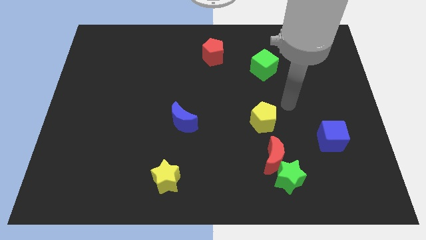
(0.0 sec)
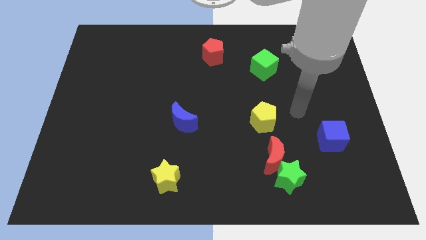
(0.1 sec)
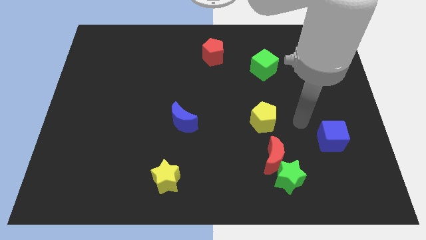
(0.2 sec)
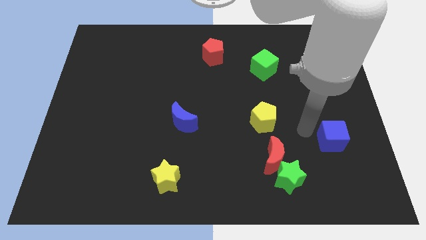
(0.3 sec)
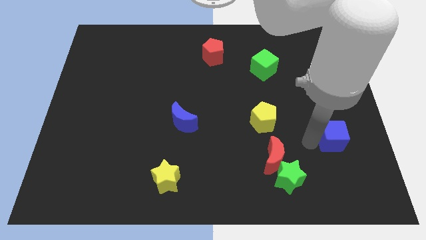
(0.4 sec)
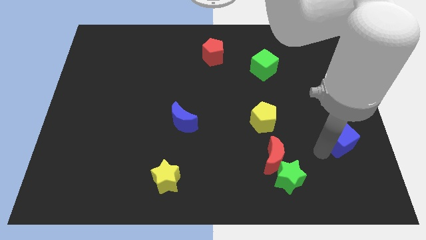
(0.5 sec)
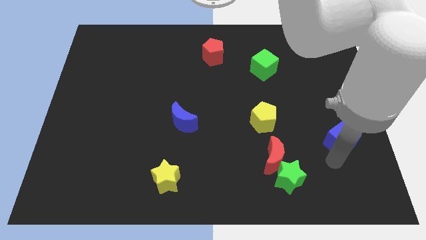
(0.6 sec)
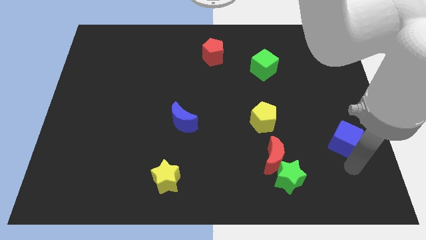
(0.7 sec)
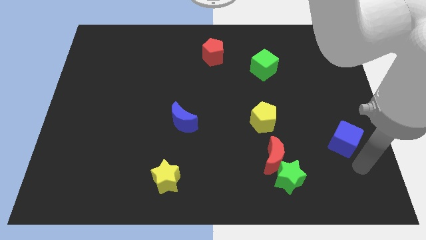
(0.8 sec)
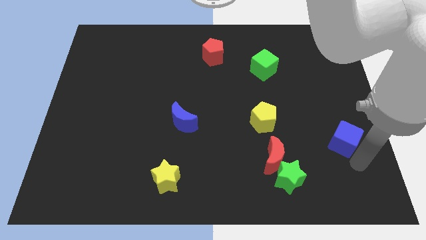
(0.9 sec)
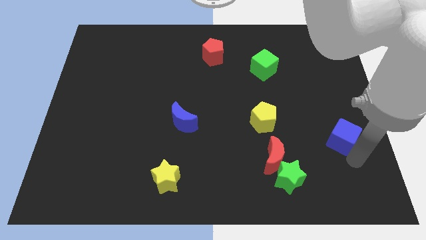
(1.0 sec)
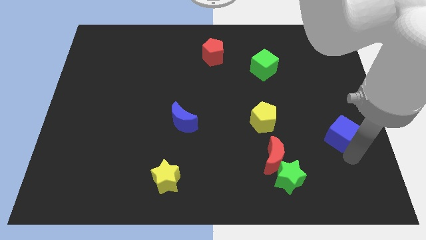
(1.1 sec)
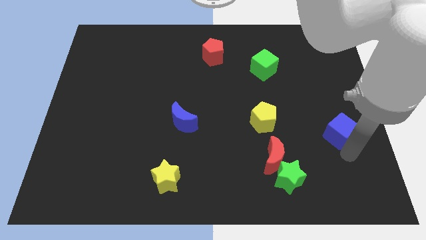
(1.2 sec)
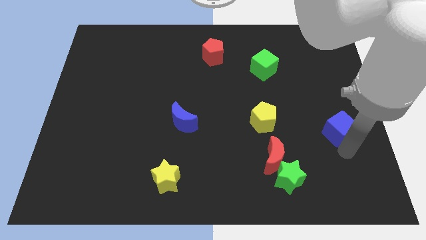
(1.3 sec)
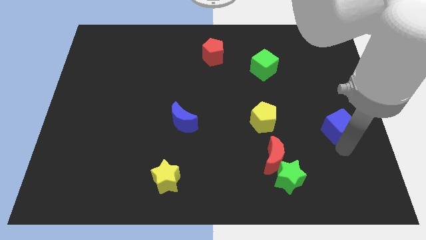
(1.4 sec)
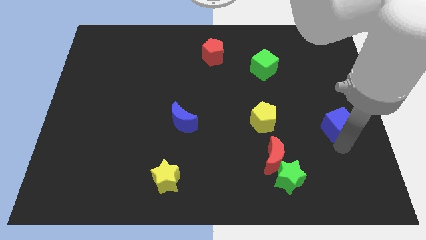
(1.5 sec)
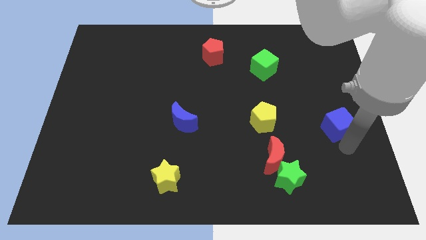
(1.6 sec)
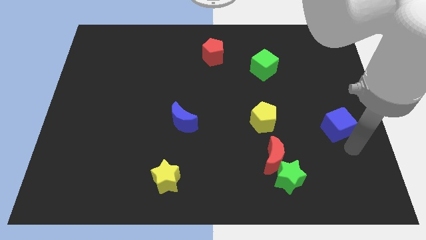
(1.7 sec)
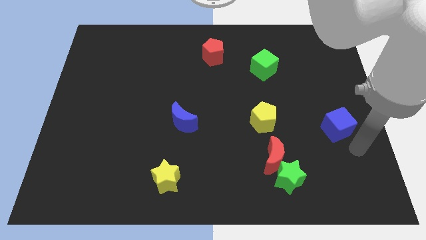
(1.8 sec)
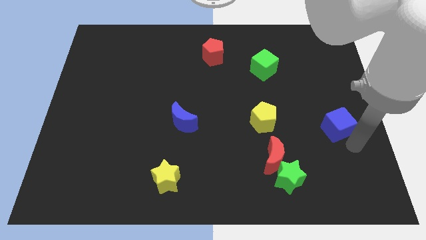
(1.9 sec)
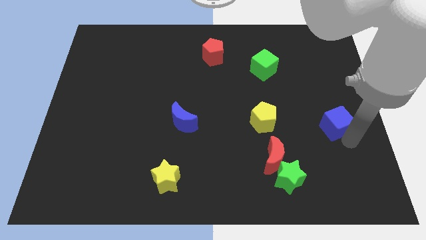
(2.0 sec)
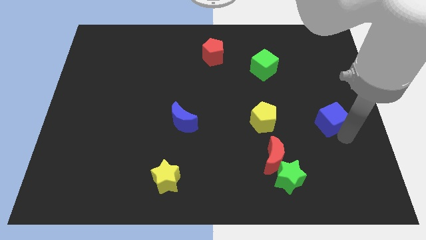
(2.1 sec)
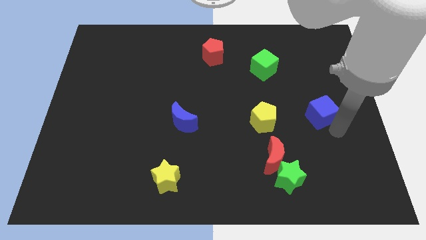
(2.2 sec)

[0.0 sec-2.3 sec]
slightly move the blue cube upwards

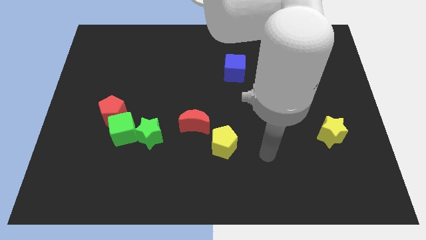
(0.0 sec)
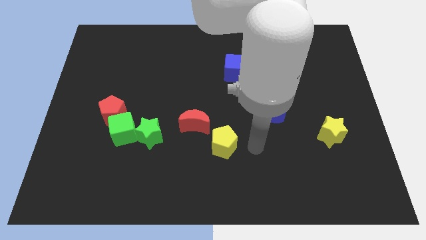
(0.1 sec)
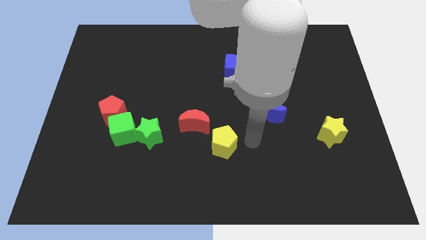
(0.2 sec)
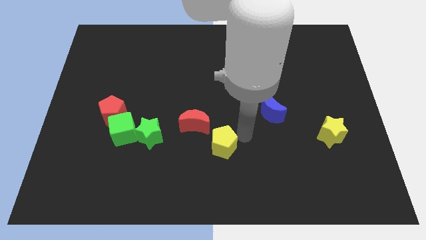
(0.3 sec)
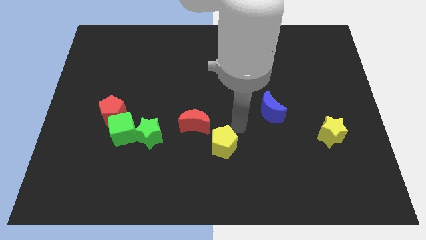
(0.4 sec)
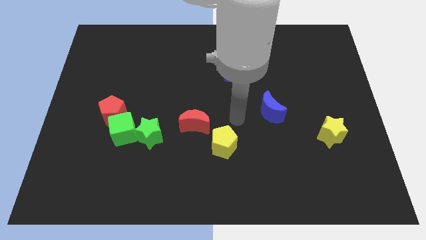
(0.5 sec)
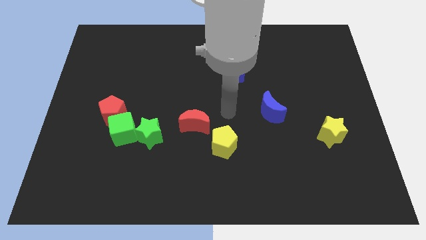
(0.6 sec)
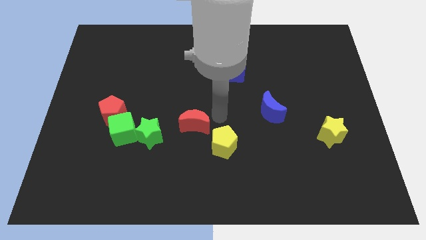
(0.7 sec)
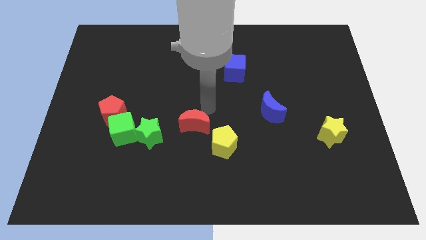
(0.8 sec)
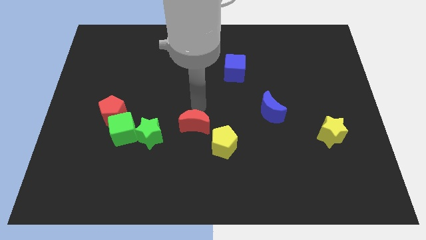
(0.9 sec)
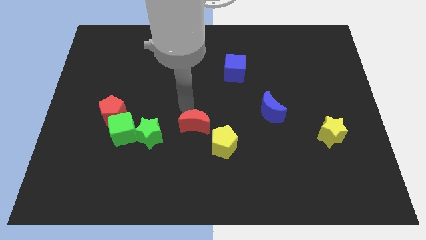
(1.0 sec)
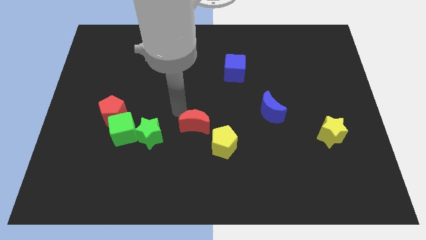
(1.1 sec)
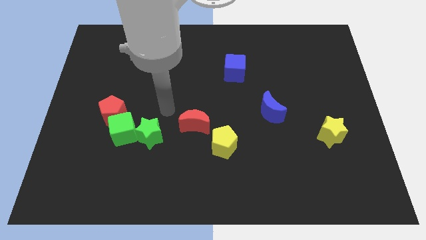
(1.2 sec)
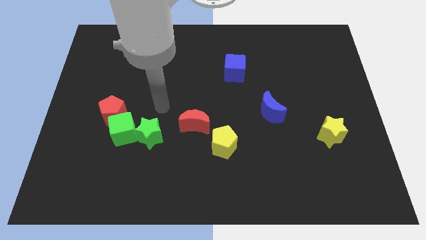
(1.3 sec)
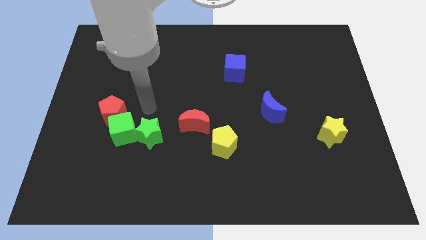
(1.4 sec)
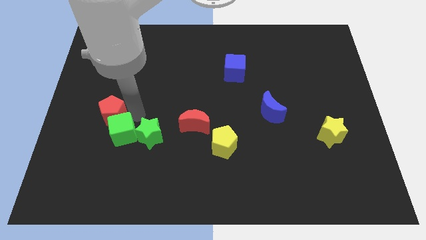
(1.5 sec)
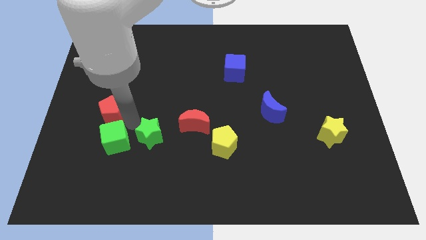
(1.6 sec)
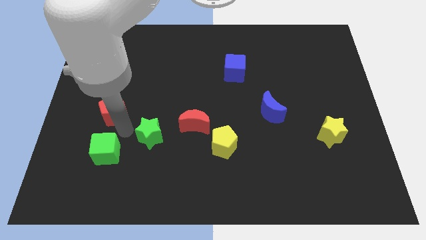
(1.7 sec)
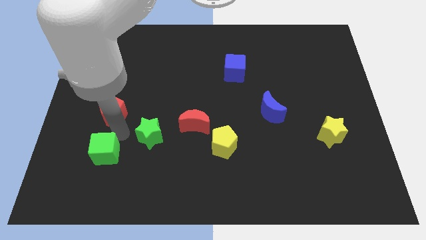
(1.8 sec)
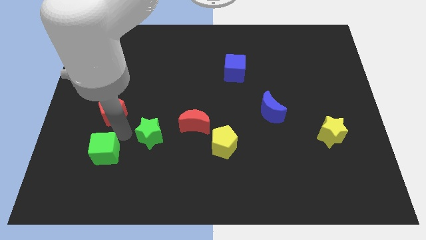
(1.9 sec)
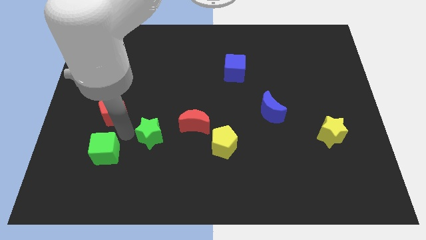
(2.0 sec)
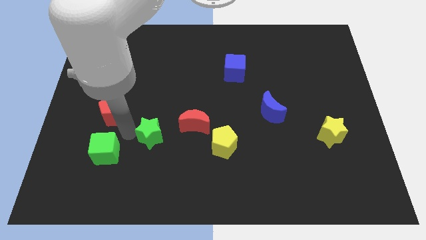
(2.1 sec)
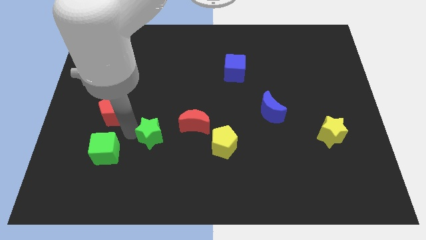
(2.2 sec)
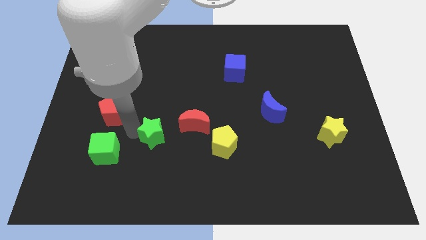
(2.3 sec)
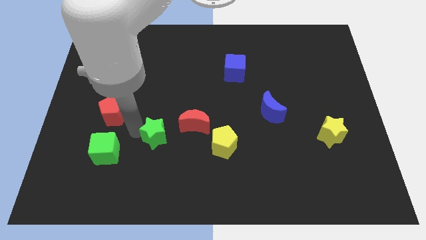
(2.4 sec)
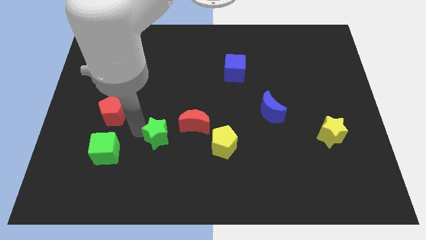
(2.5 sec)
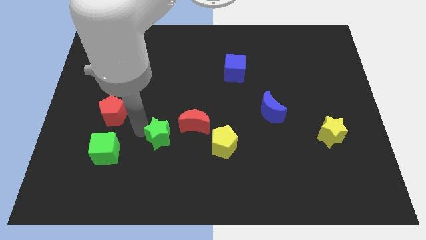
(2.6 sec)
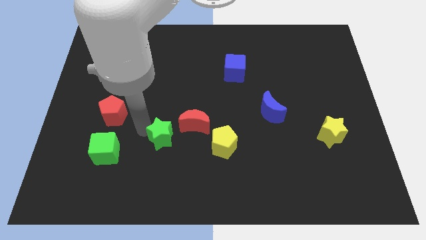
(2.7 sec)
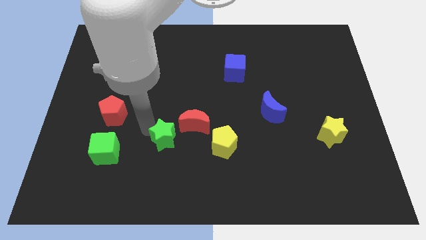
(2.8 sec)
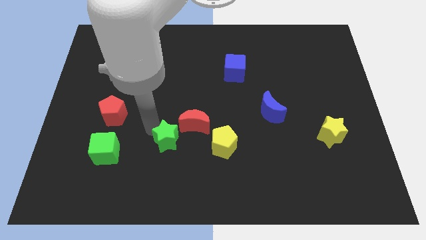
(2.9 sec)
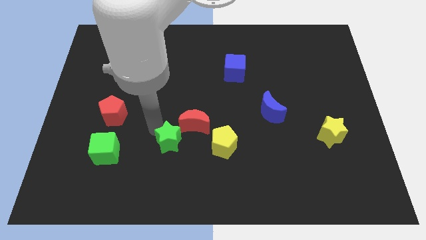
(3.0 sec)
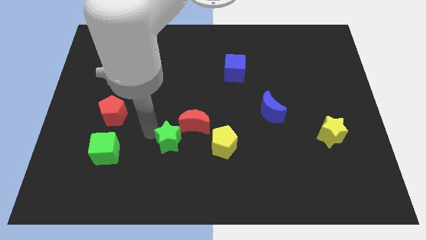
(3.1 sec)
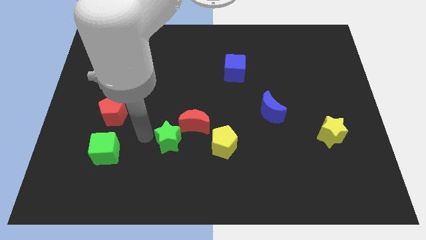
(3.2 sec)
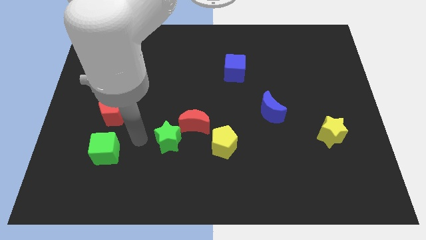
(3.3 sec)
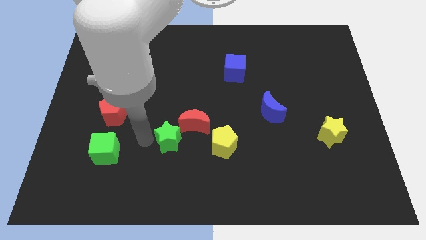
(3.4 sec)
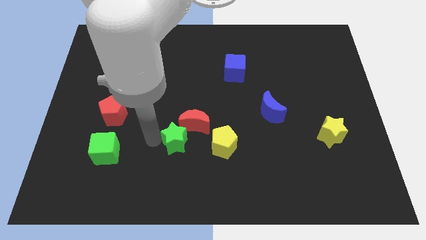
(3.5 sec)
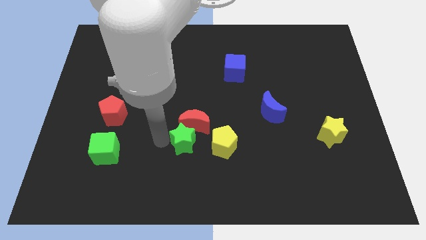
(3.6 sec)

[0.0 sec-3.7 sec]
push the green star right slightly

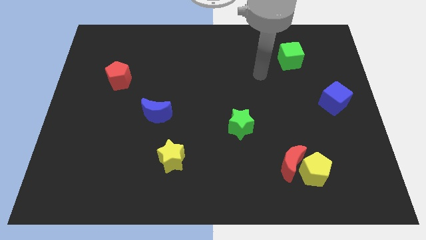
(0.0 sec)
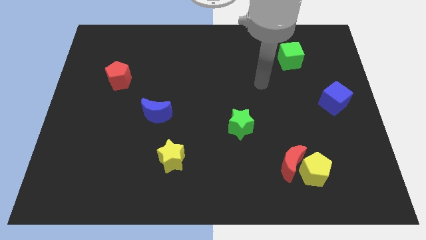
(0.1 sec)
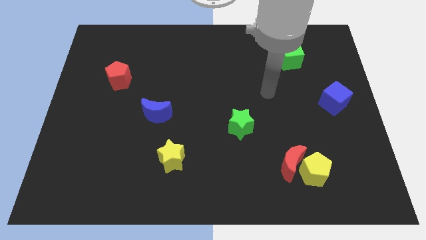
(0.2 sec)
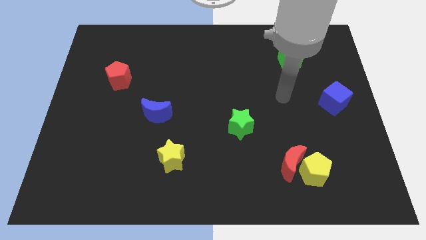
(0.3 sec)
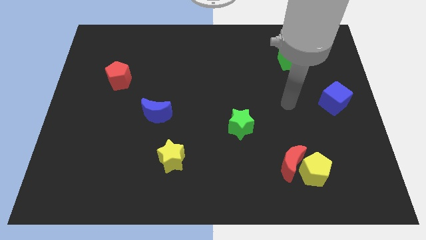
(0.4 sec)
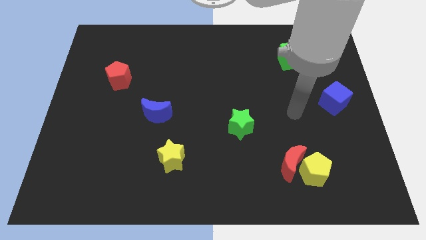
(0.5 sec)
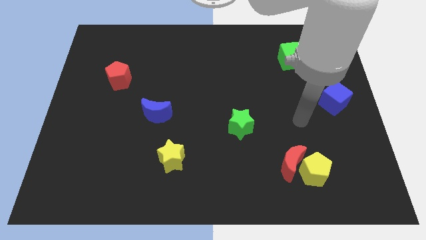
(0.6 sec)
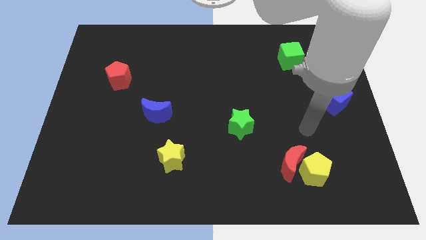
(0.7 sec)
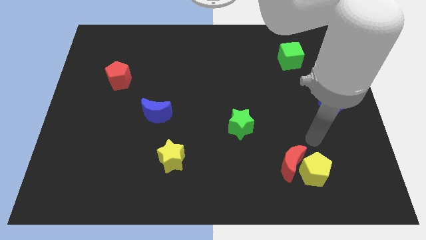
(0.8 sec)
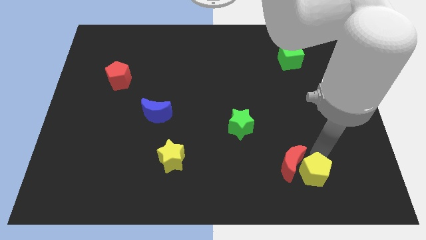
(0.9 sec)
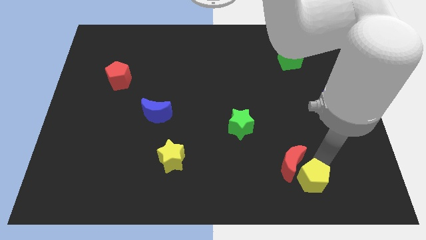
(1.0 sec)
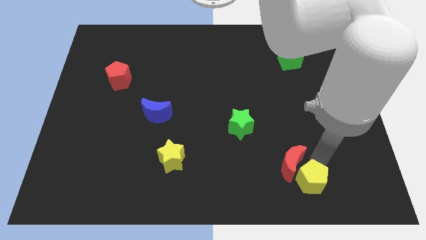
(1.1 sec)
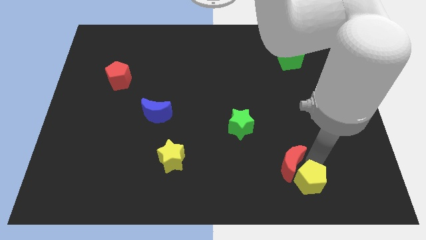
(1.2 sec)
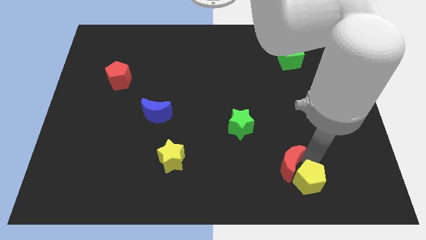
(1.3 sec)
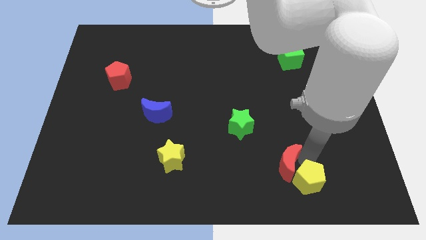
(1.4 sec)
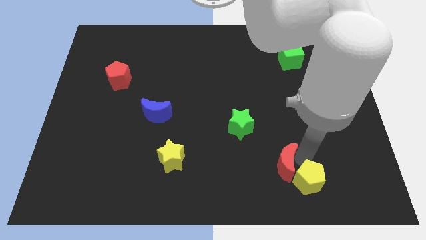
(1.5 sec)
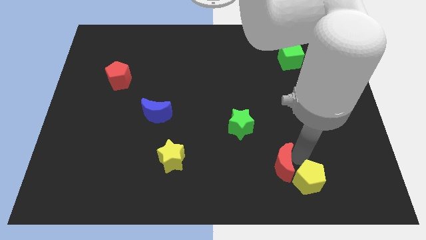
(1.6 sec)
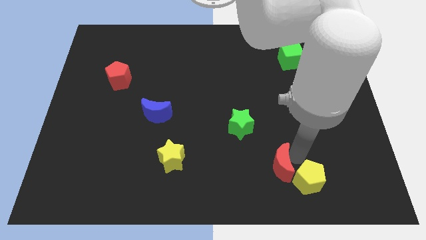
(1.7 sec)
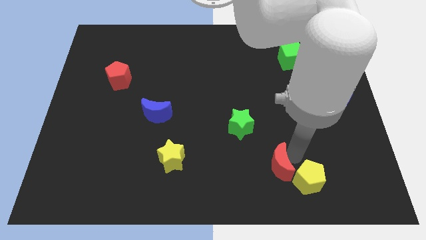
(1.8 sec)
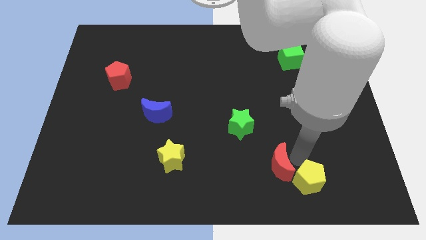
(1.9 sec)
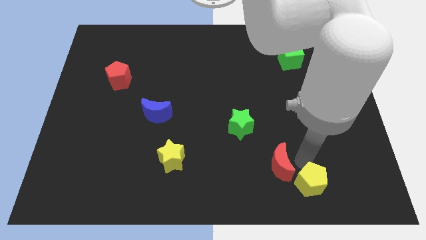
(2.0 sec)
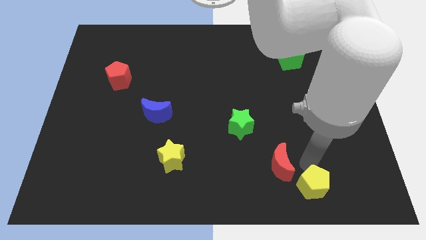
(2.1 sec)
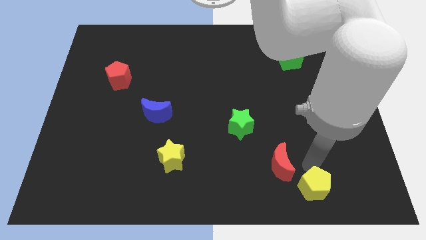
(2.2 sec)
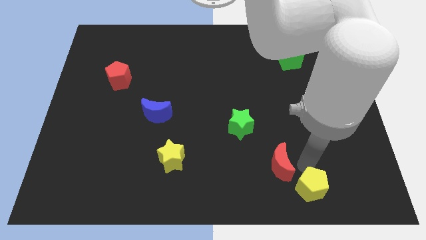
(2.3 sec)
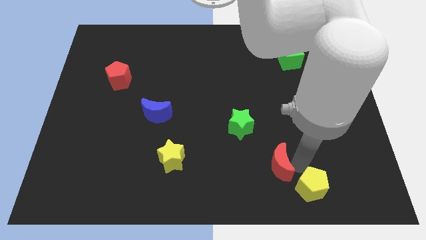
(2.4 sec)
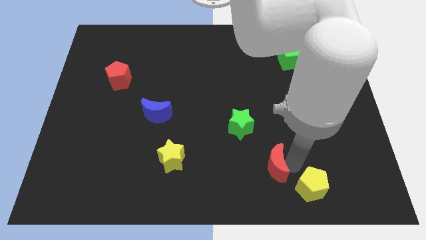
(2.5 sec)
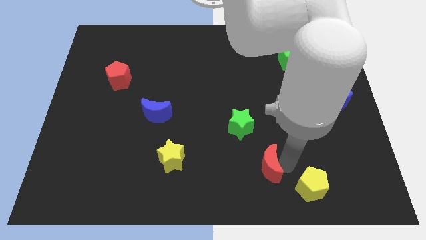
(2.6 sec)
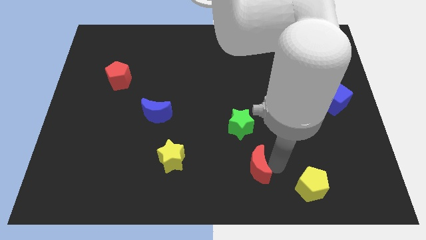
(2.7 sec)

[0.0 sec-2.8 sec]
slide the red moon to the left a little bit
